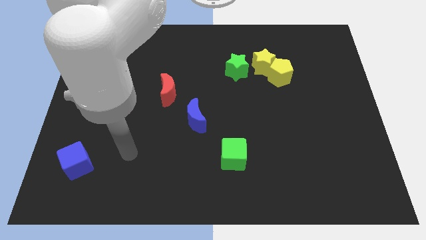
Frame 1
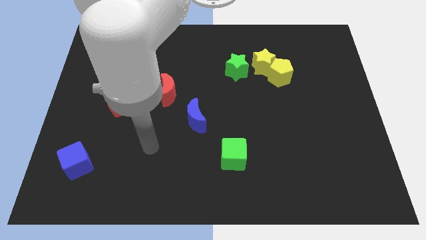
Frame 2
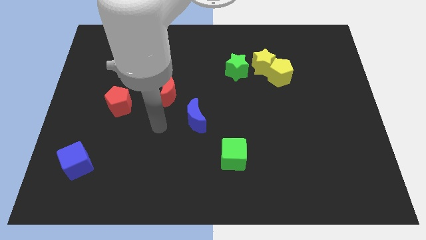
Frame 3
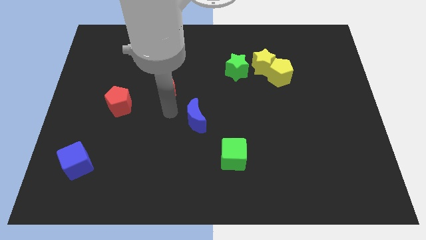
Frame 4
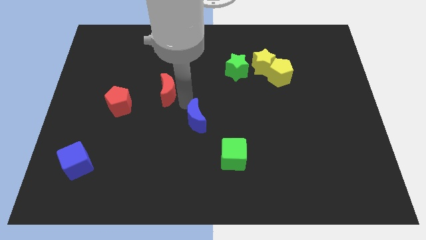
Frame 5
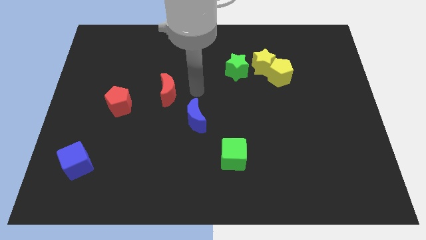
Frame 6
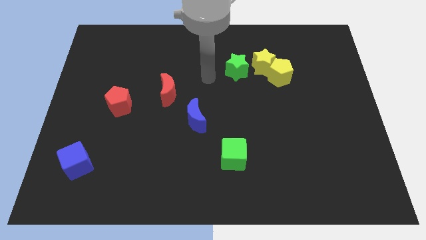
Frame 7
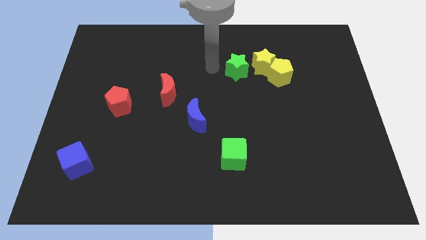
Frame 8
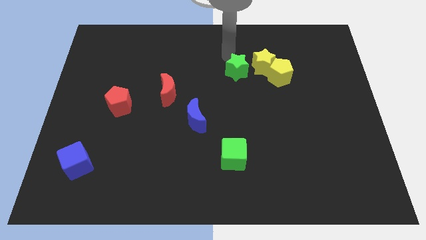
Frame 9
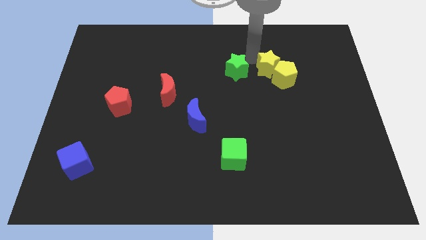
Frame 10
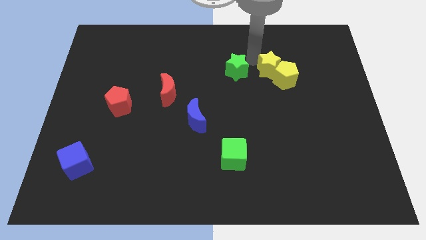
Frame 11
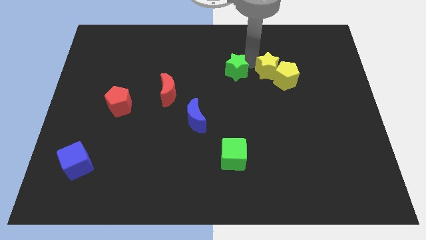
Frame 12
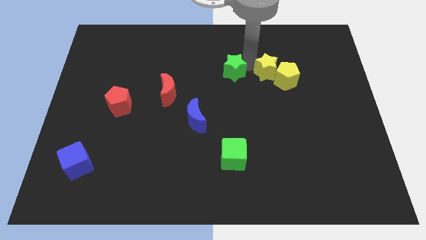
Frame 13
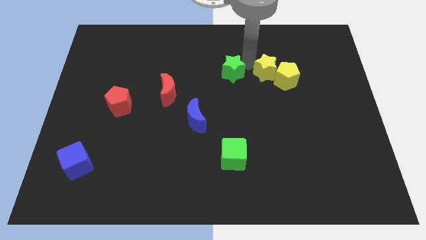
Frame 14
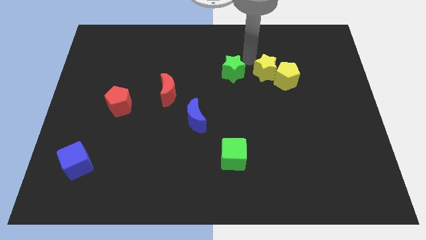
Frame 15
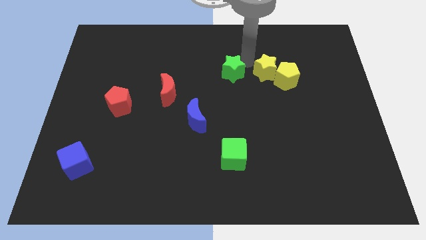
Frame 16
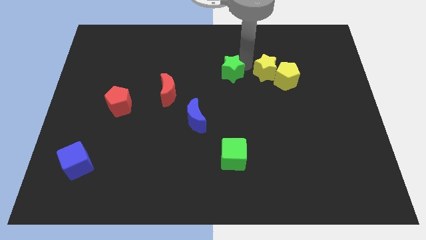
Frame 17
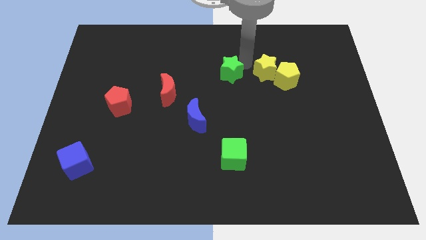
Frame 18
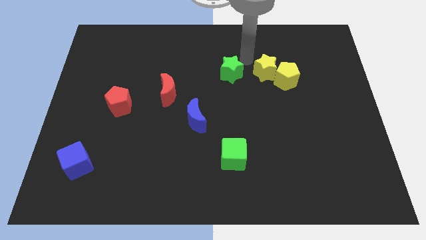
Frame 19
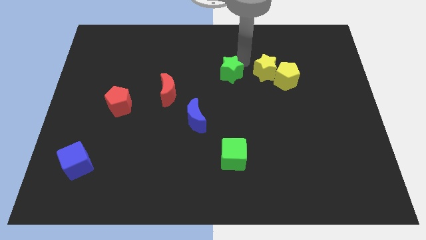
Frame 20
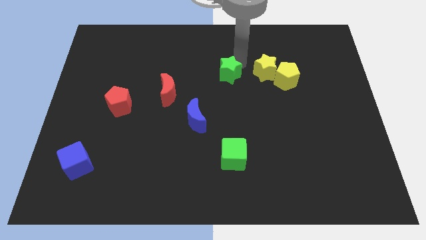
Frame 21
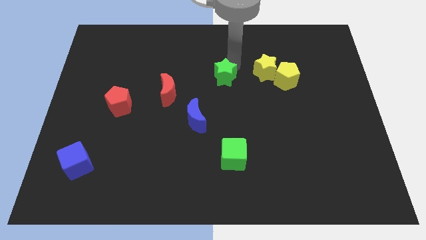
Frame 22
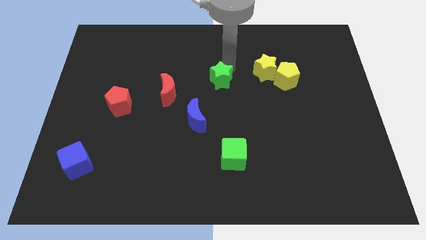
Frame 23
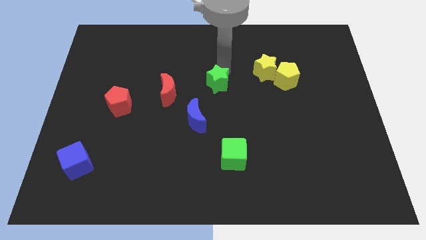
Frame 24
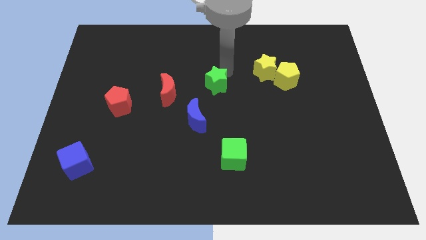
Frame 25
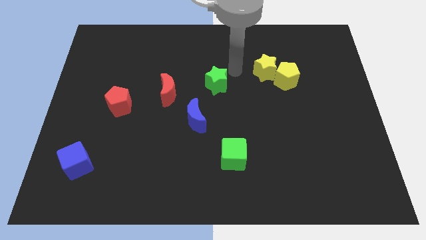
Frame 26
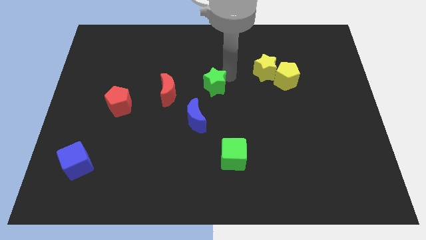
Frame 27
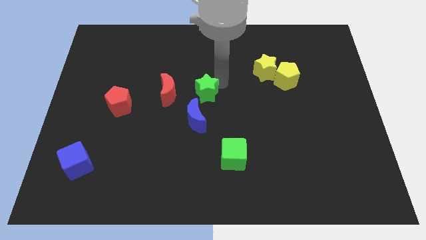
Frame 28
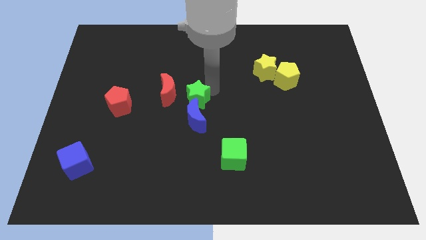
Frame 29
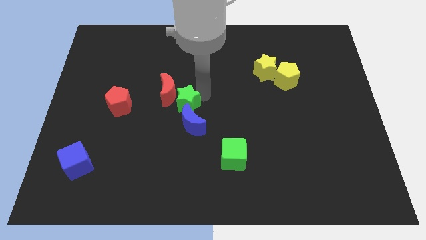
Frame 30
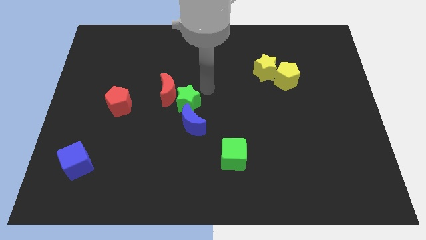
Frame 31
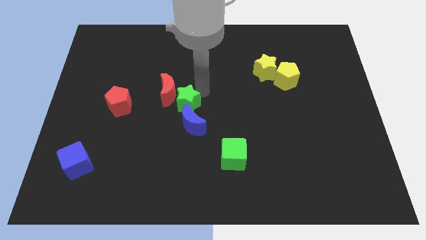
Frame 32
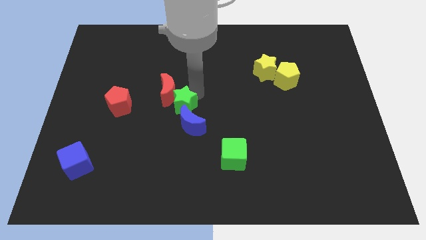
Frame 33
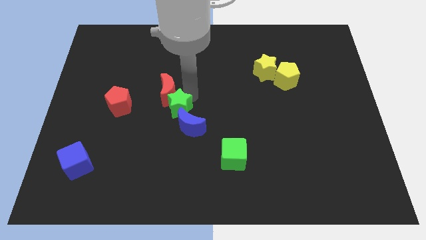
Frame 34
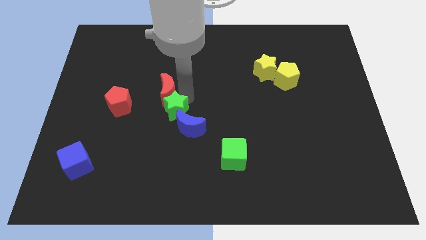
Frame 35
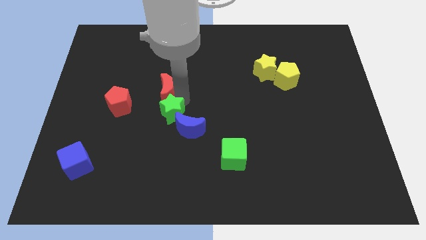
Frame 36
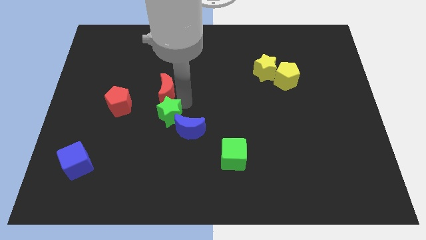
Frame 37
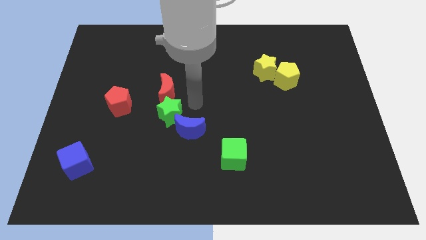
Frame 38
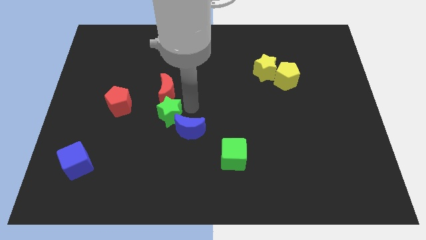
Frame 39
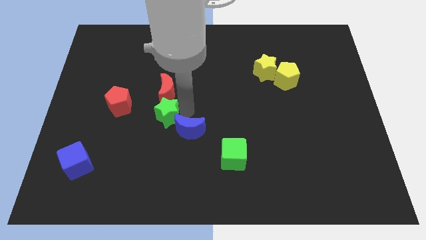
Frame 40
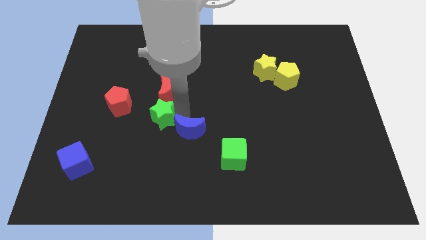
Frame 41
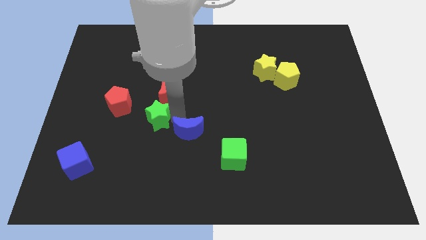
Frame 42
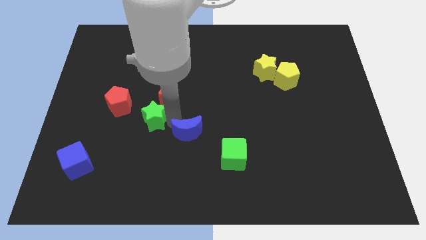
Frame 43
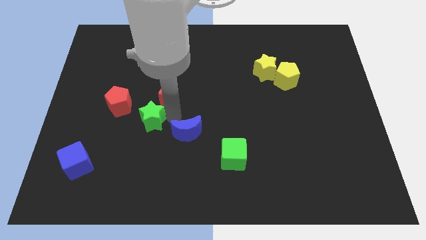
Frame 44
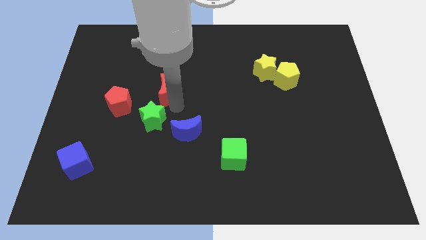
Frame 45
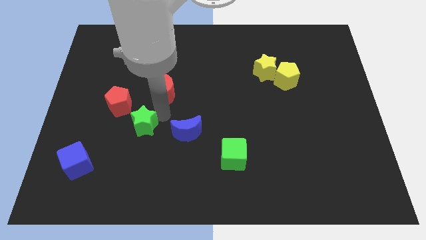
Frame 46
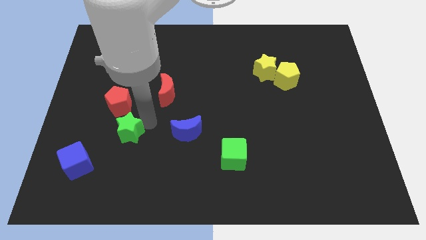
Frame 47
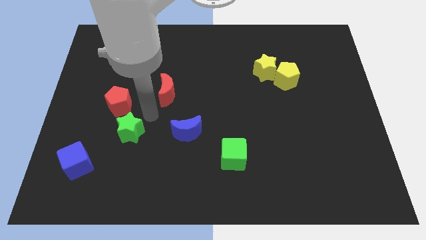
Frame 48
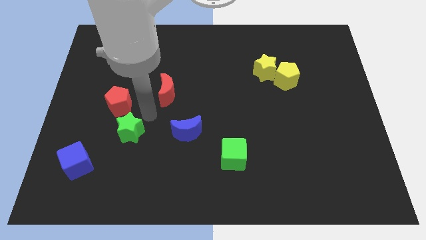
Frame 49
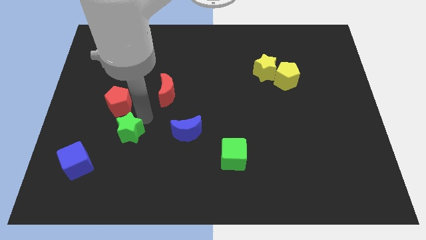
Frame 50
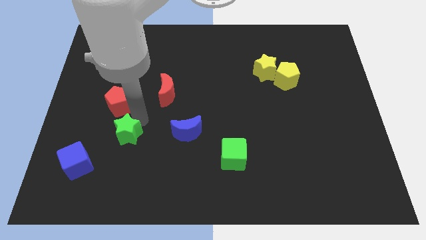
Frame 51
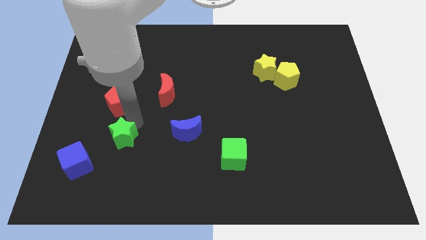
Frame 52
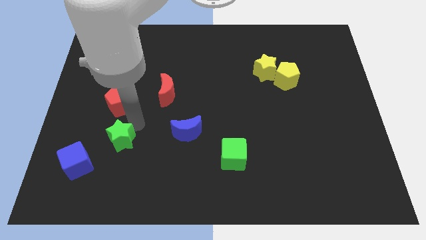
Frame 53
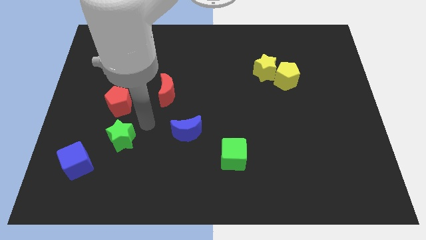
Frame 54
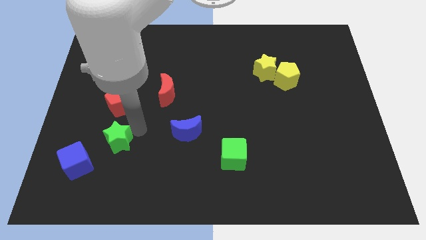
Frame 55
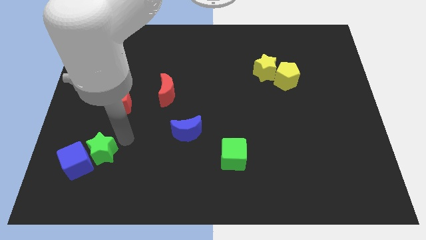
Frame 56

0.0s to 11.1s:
slide the green star next to the blue cube

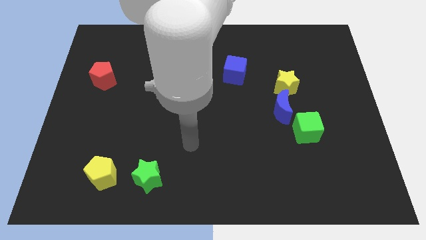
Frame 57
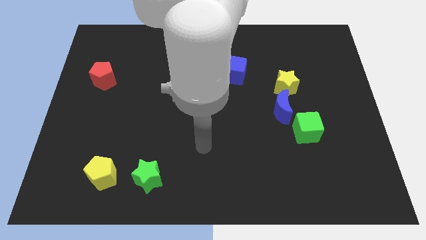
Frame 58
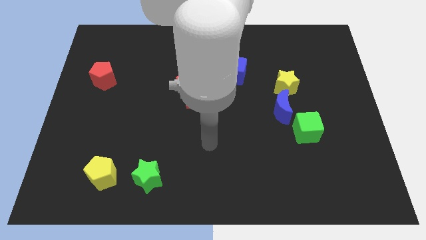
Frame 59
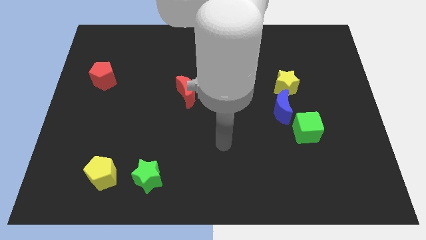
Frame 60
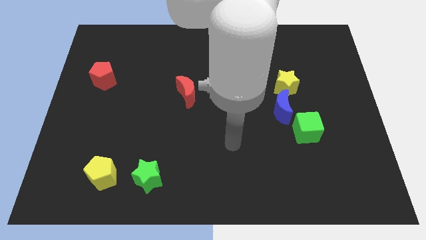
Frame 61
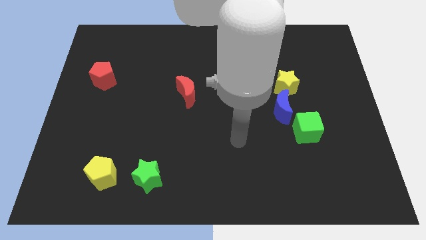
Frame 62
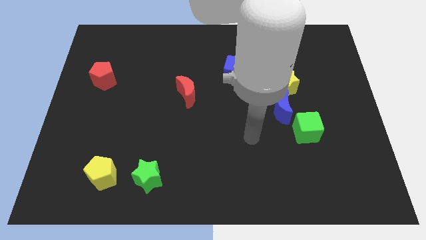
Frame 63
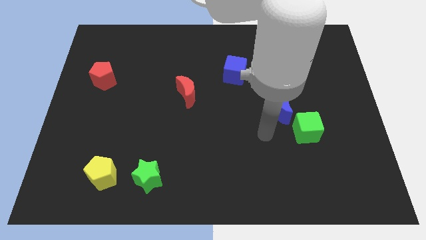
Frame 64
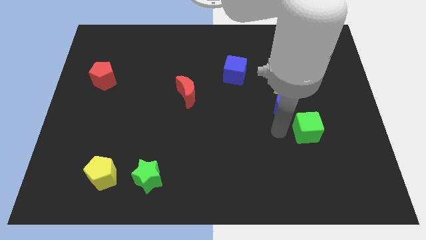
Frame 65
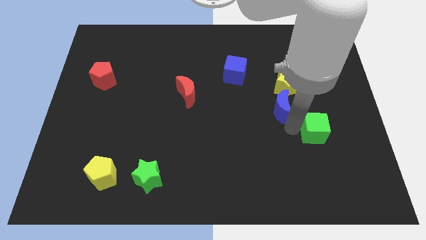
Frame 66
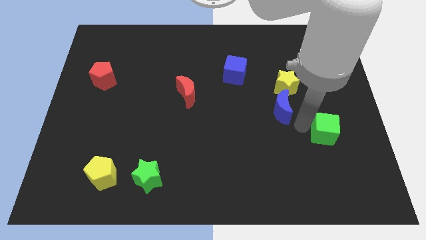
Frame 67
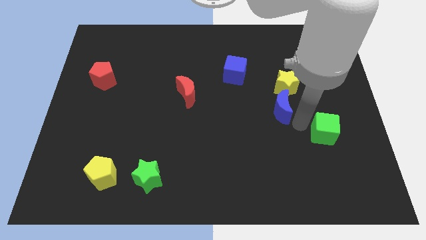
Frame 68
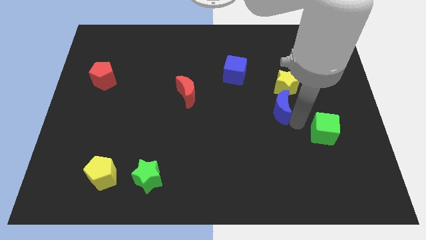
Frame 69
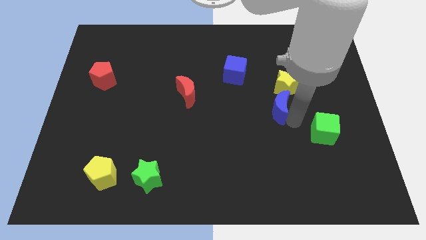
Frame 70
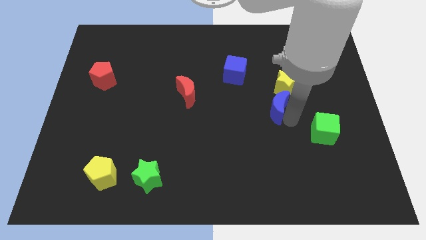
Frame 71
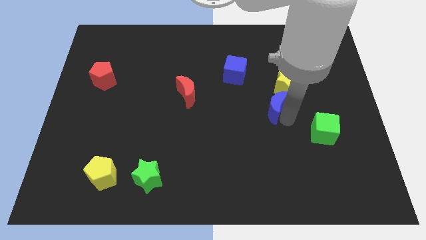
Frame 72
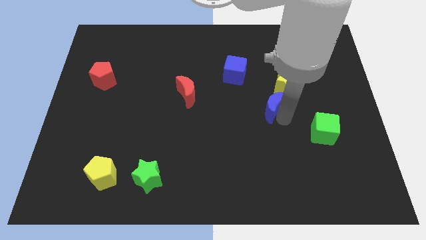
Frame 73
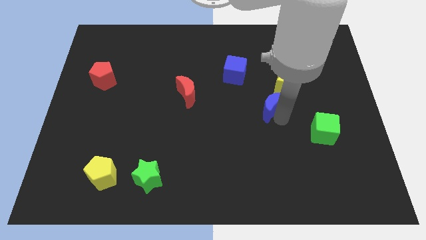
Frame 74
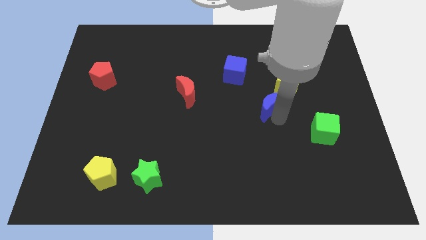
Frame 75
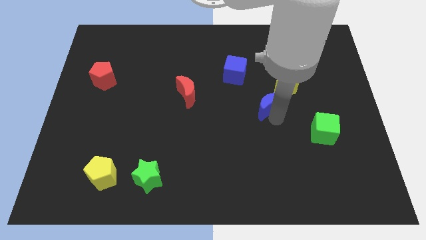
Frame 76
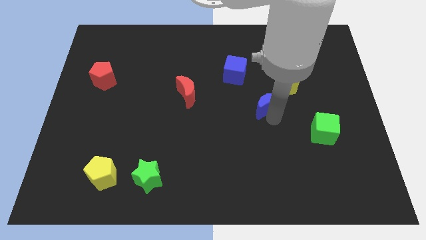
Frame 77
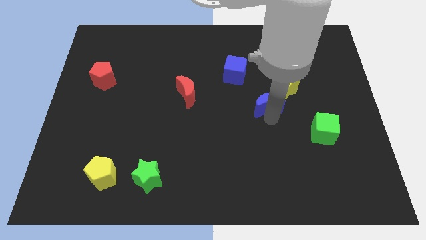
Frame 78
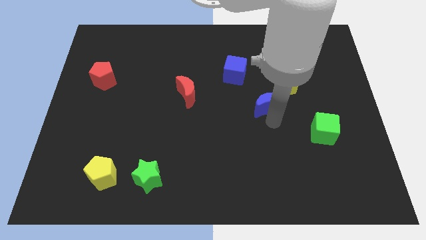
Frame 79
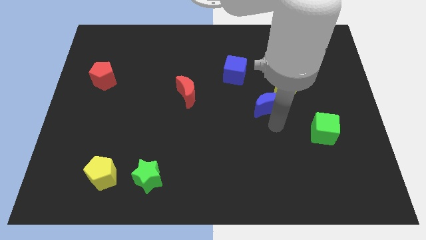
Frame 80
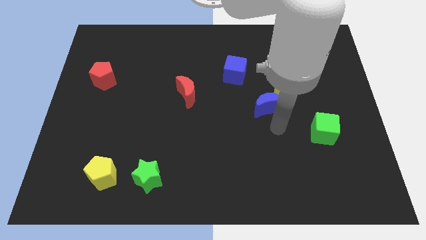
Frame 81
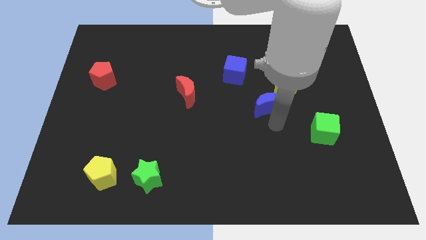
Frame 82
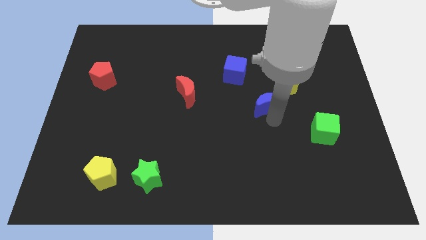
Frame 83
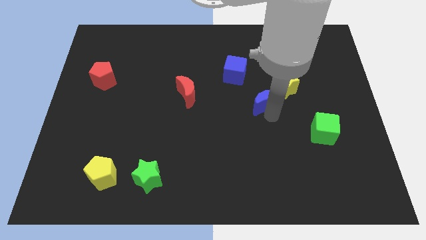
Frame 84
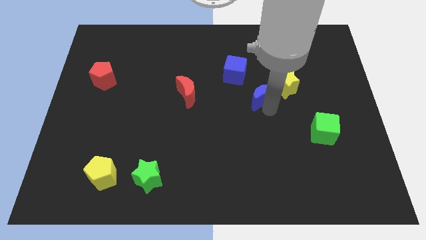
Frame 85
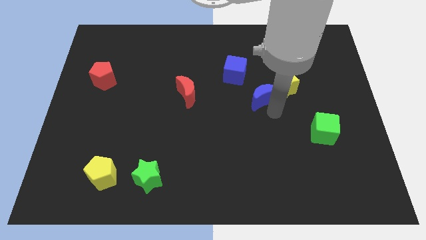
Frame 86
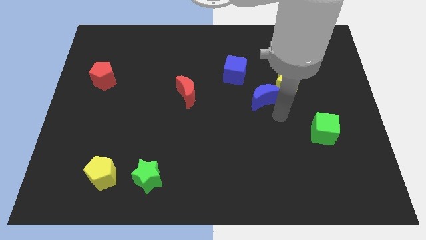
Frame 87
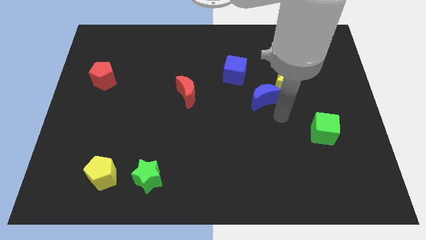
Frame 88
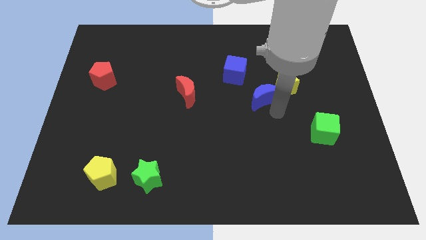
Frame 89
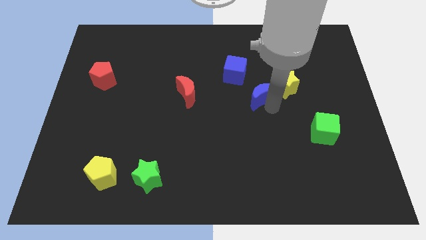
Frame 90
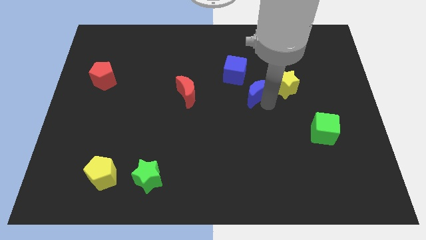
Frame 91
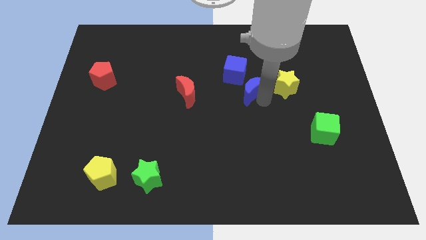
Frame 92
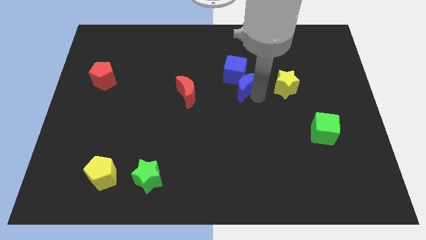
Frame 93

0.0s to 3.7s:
slide the blue moon to the blue cube
